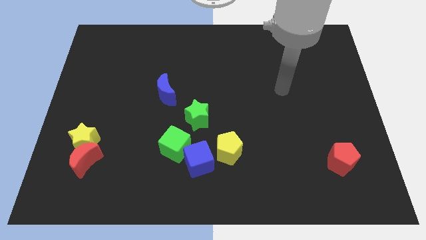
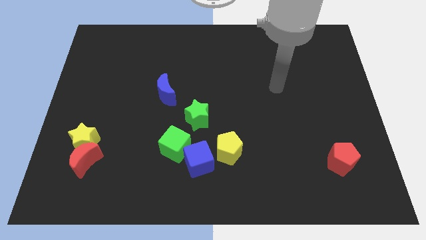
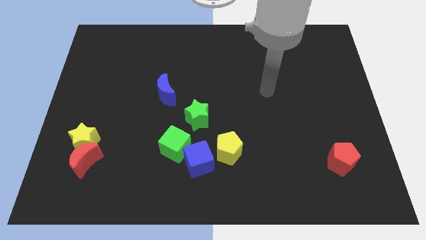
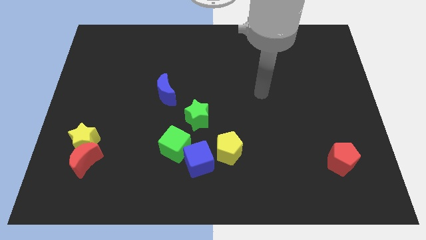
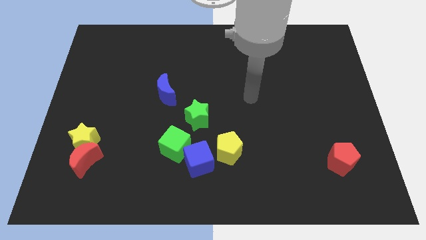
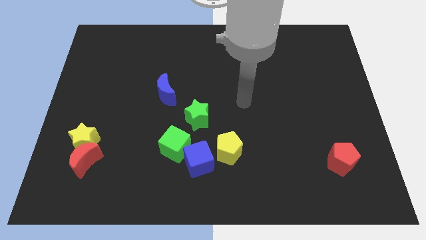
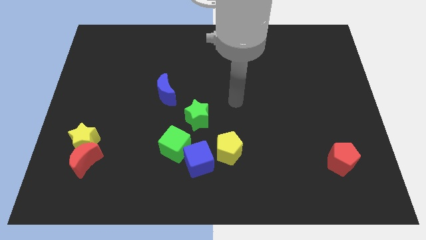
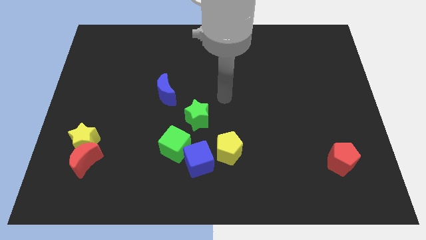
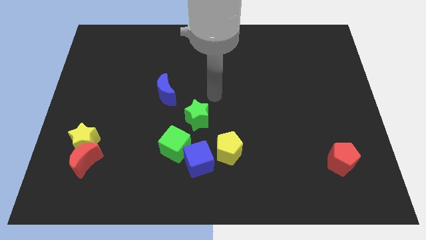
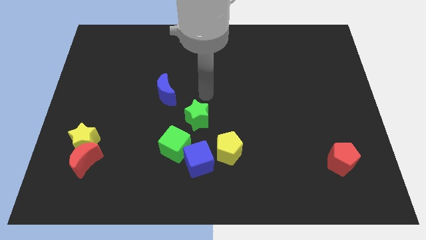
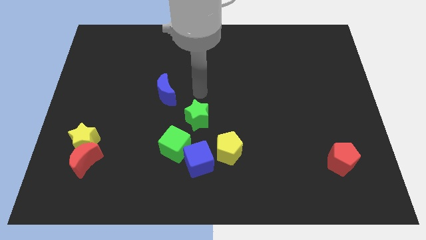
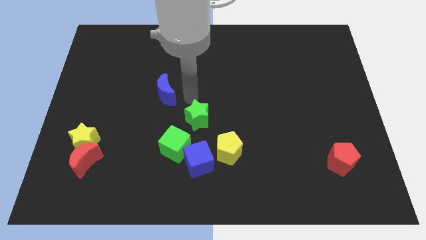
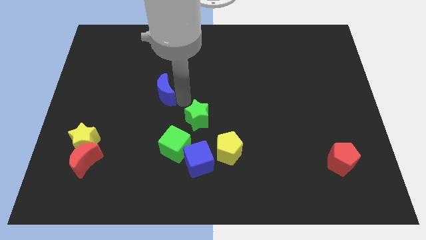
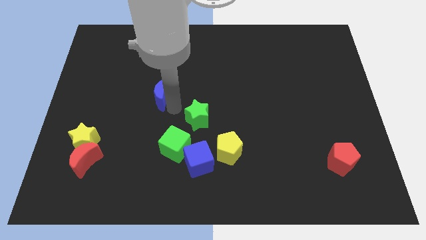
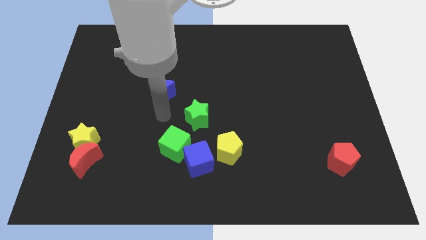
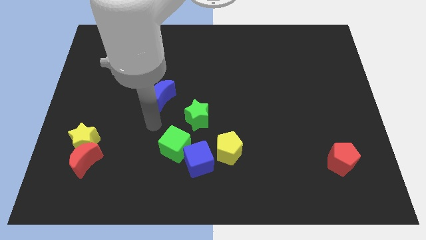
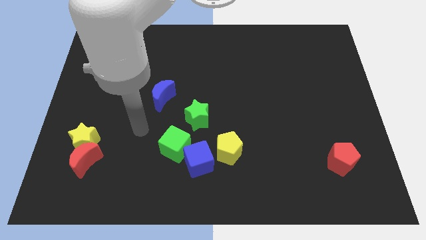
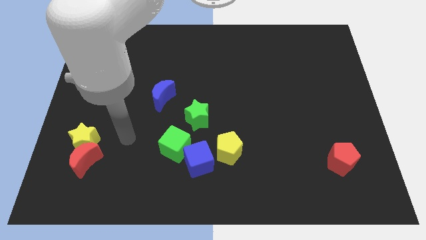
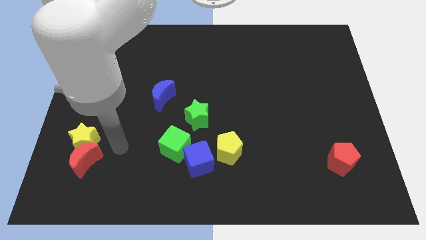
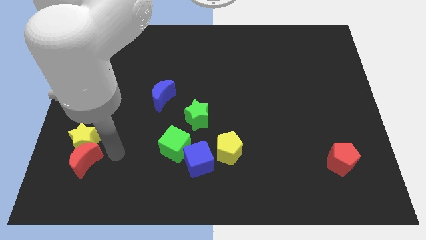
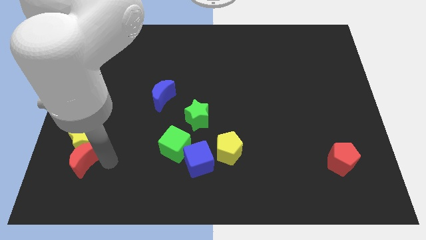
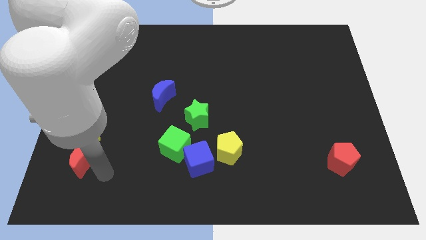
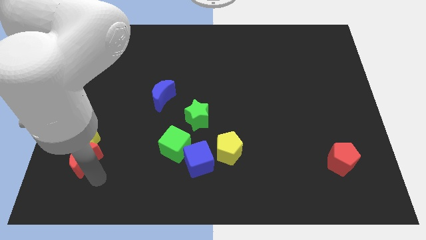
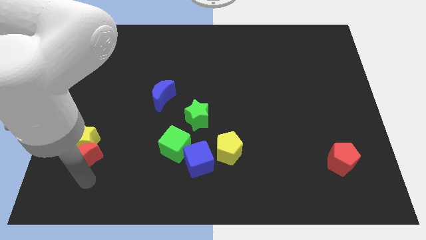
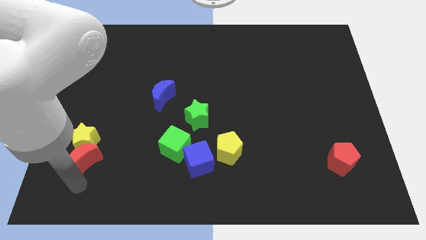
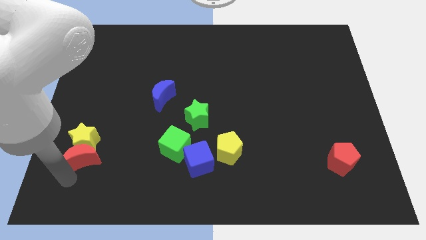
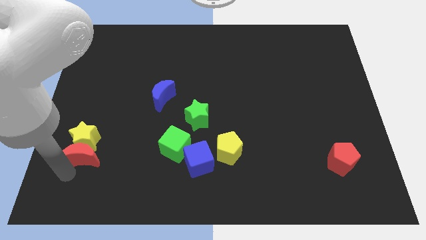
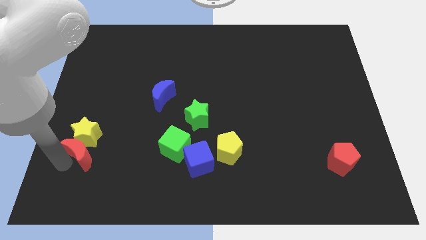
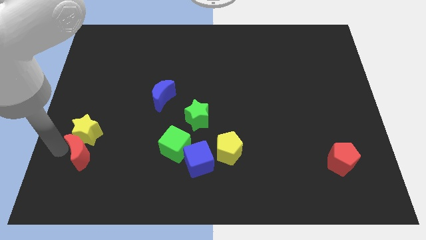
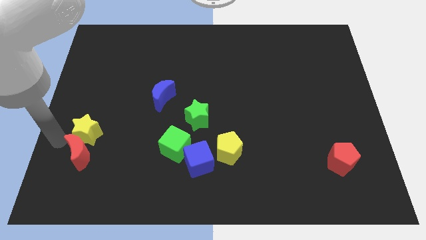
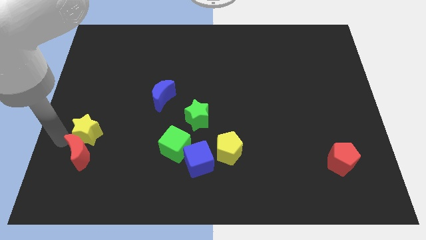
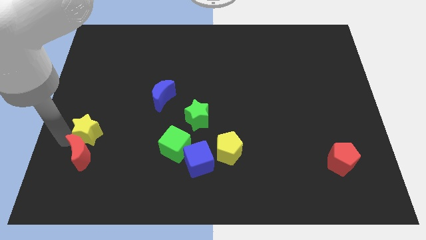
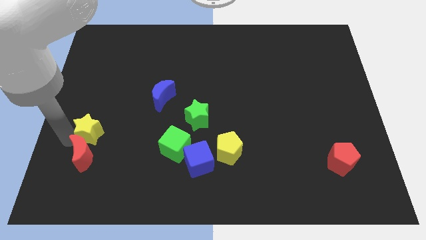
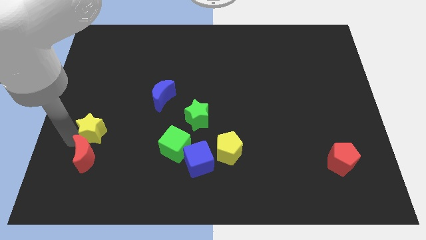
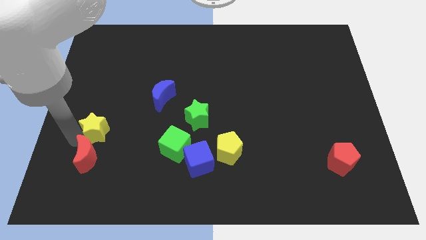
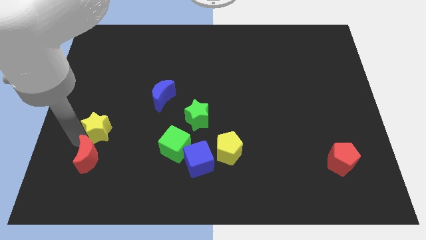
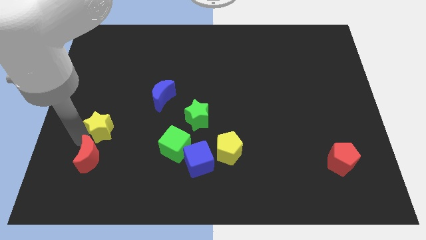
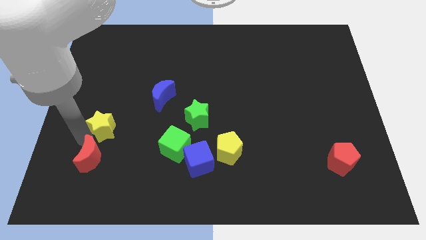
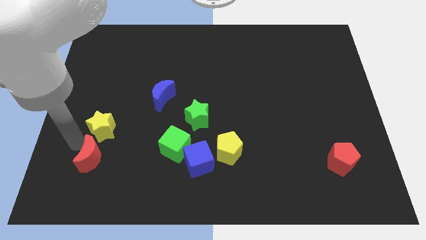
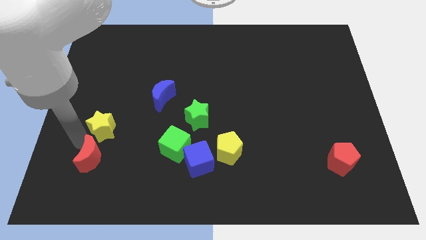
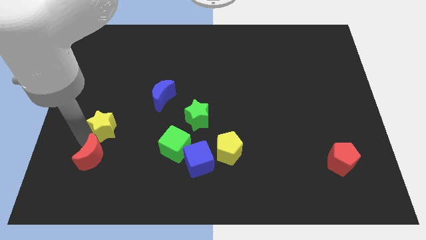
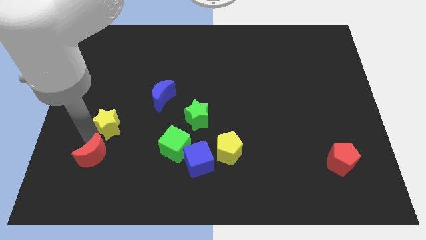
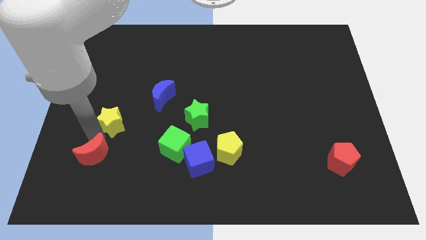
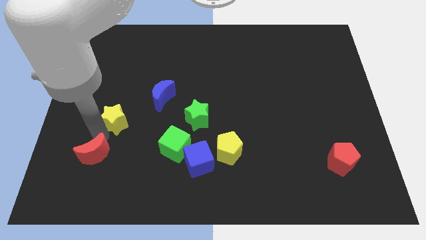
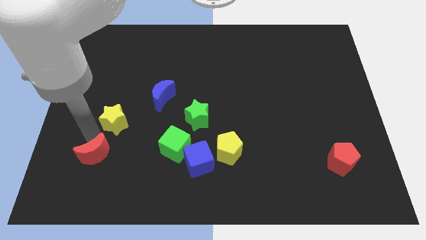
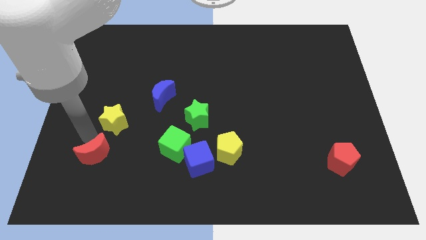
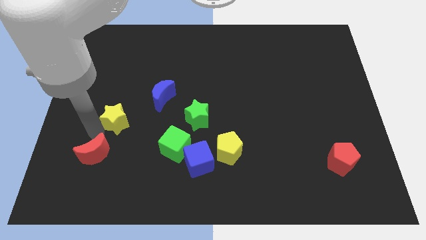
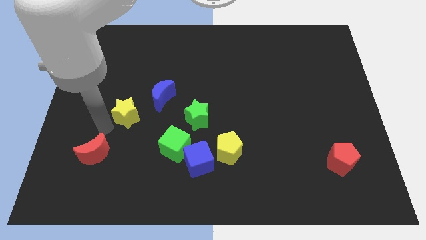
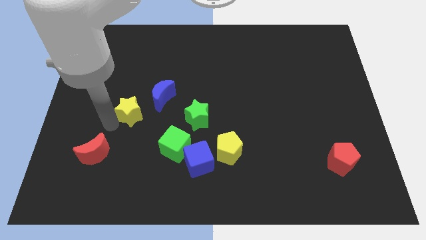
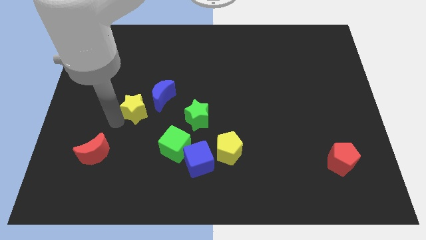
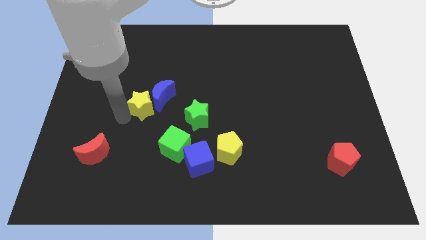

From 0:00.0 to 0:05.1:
push the yellow star next to the blue moon

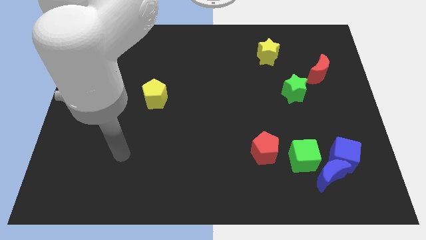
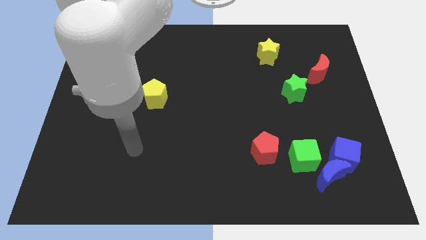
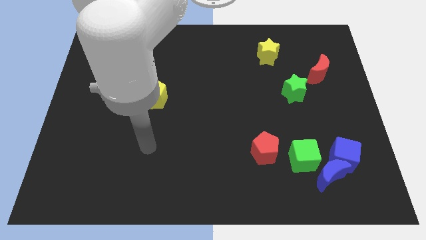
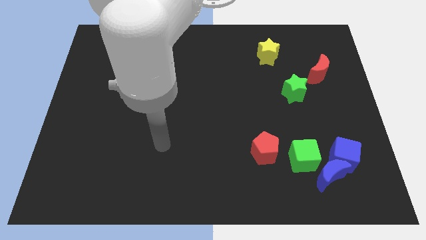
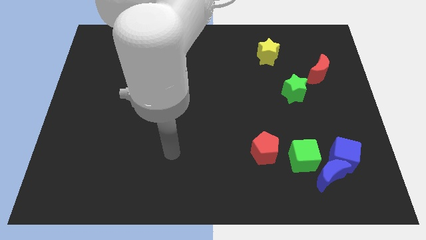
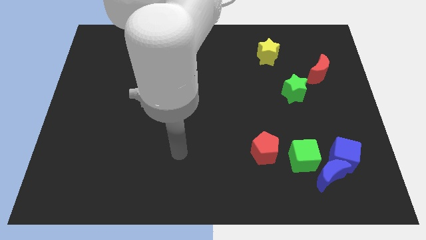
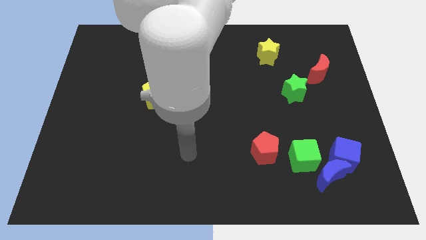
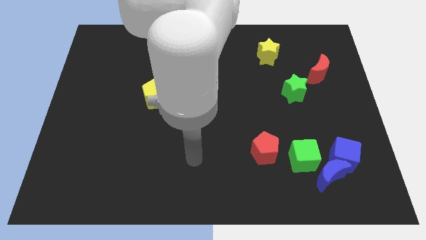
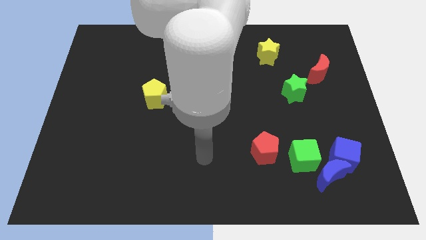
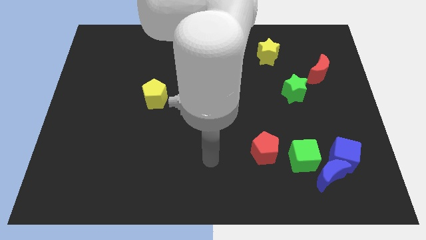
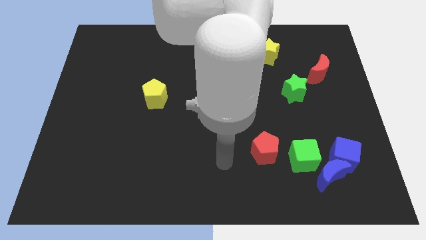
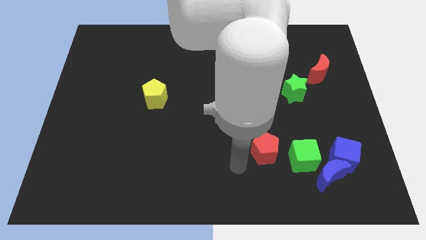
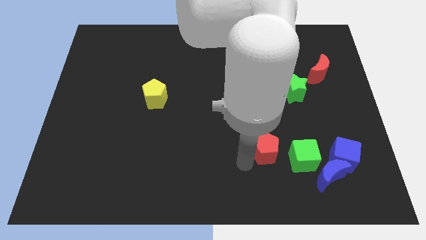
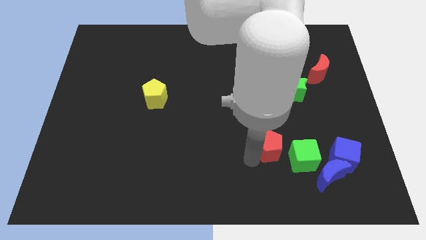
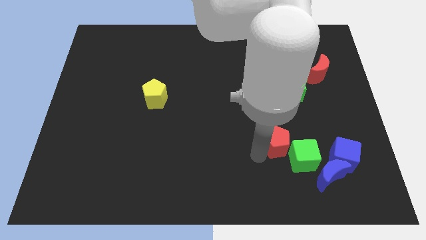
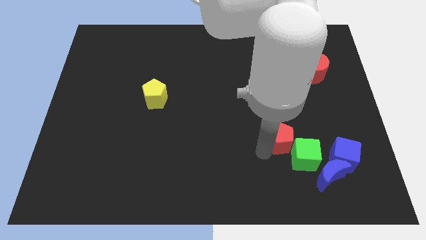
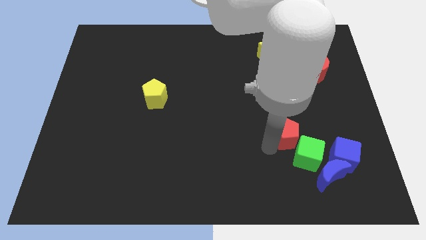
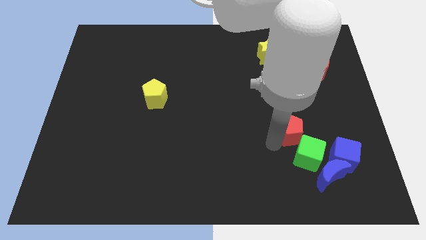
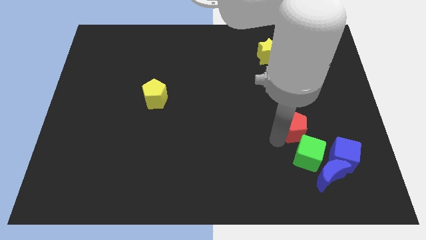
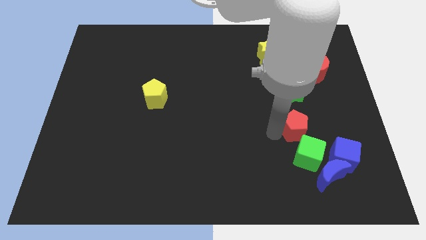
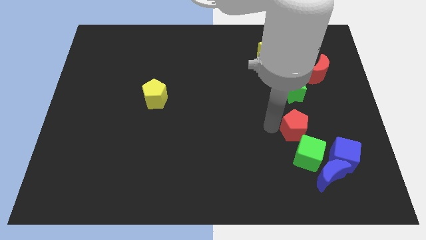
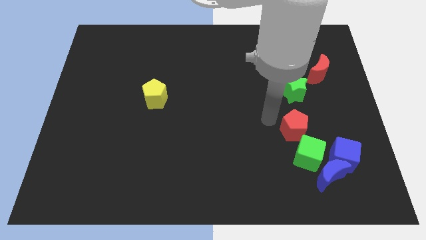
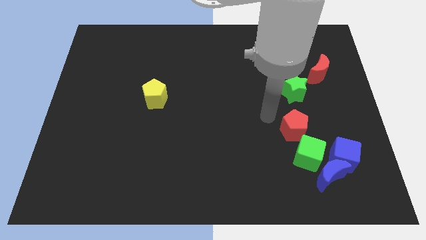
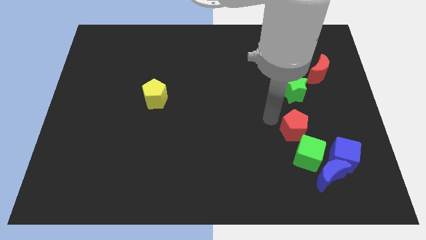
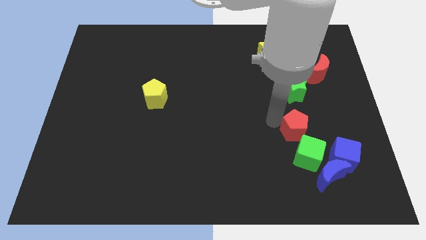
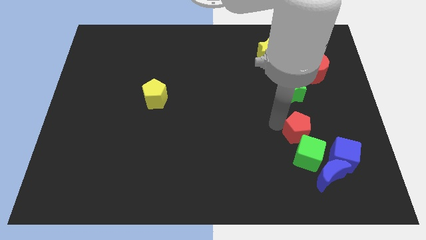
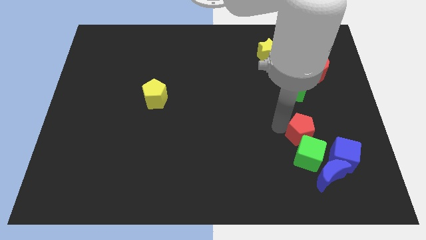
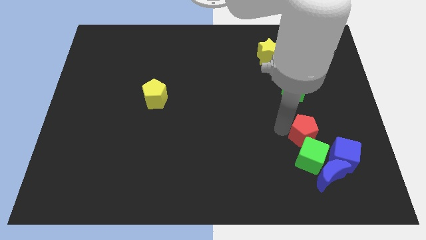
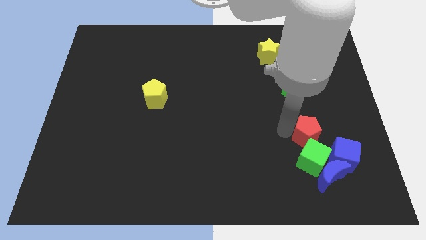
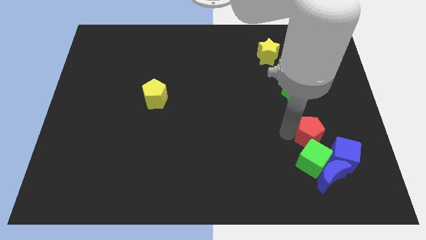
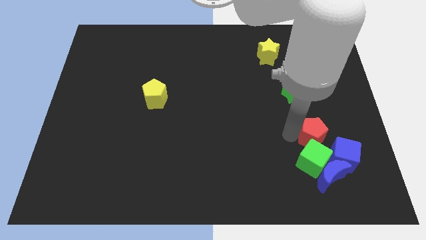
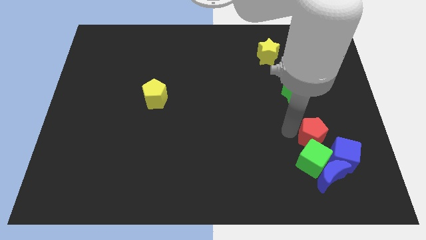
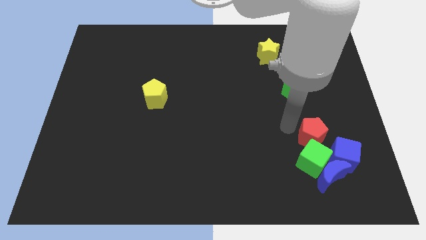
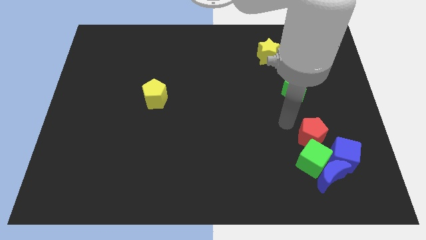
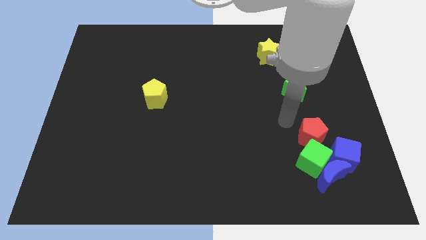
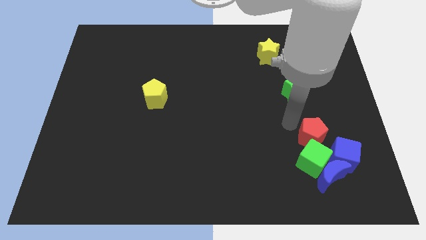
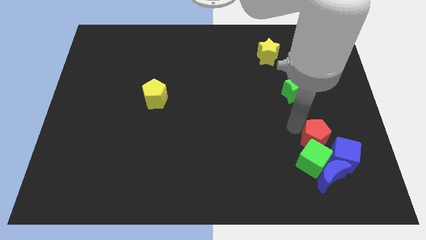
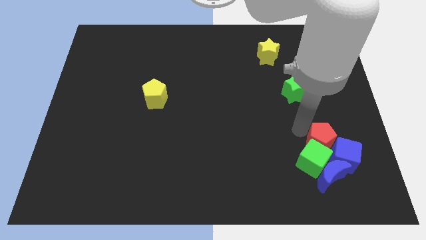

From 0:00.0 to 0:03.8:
move the red pentagon next to the blue cube
